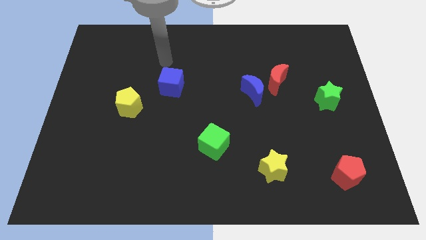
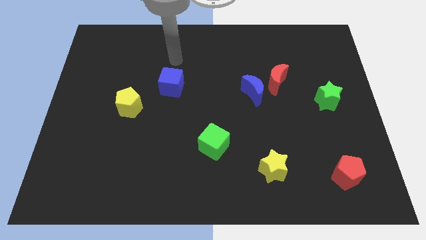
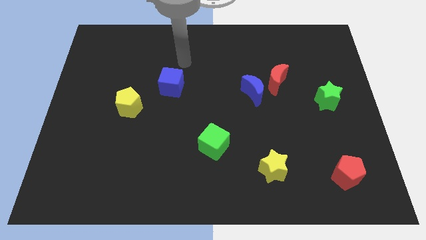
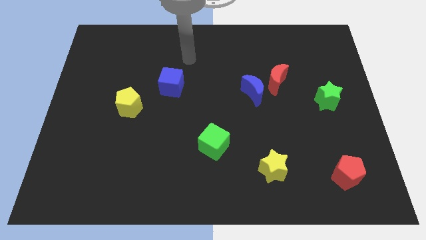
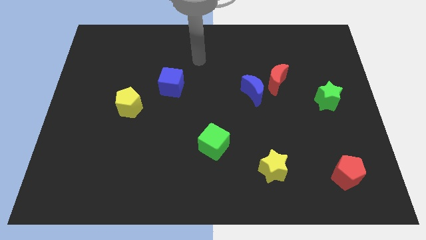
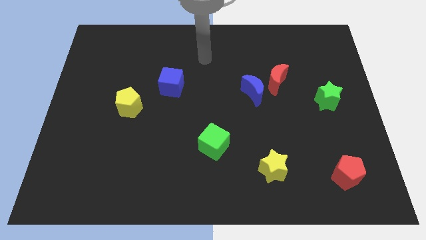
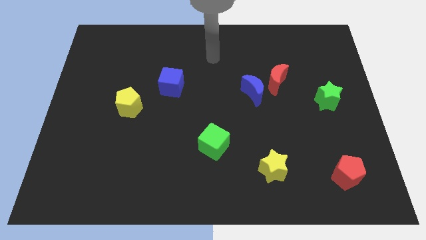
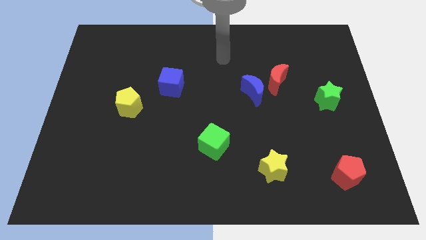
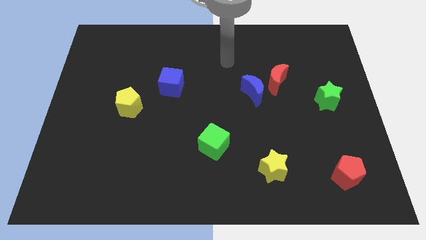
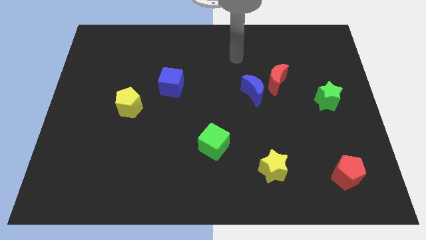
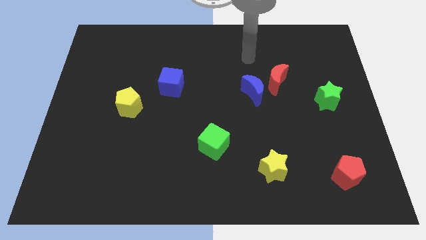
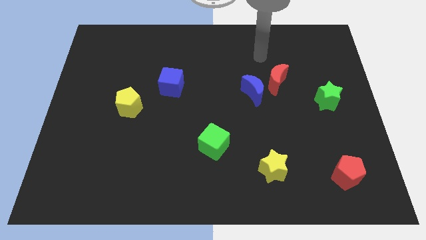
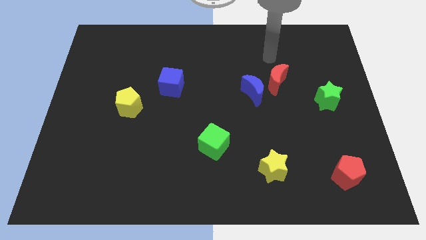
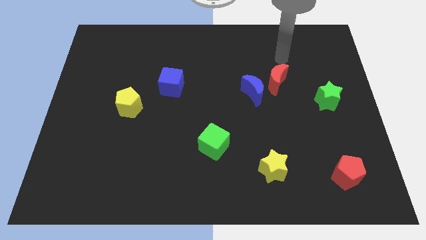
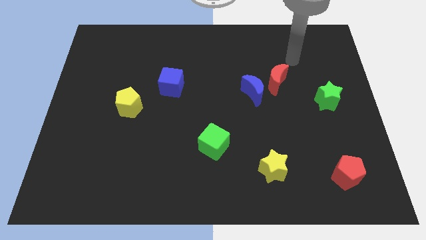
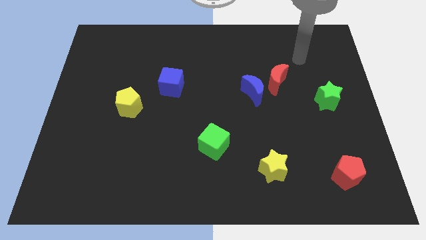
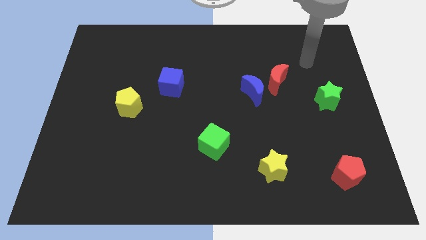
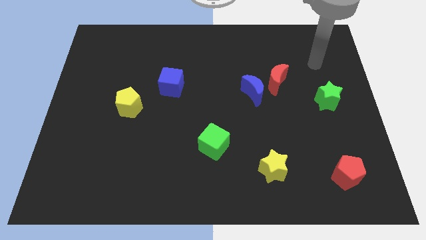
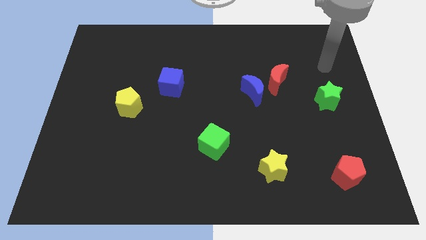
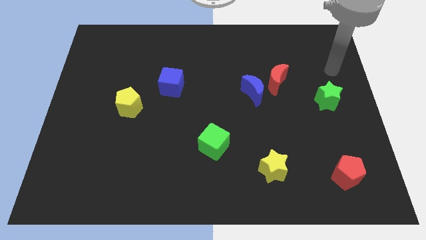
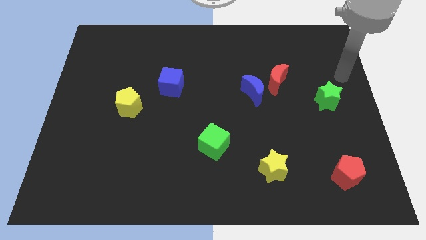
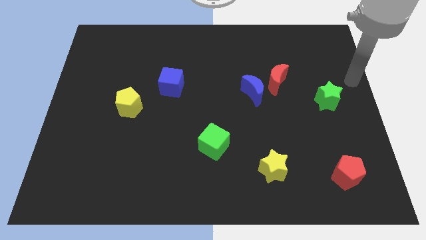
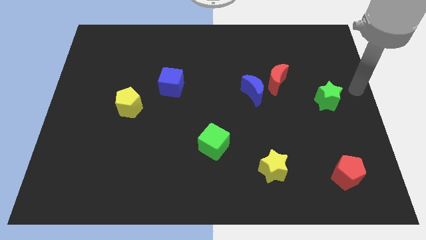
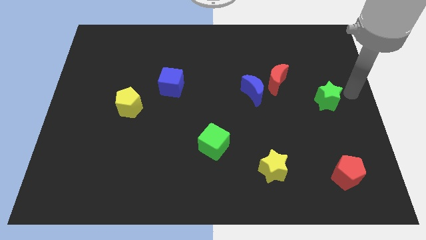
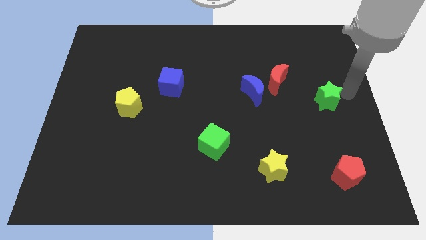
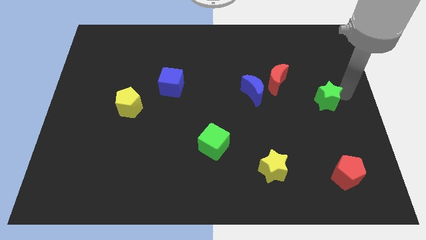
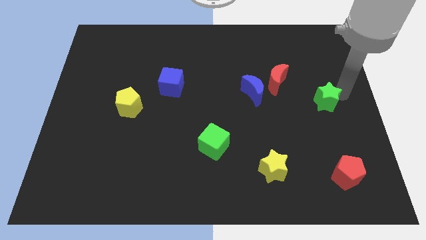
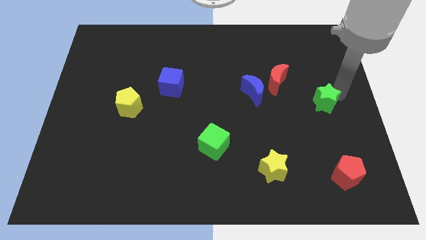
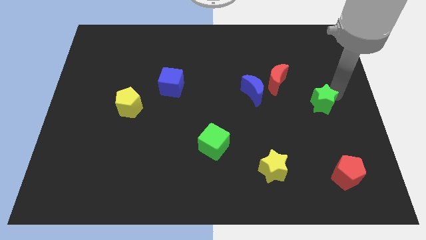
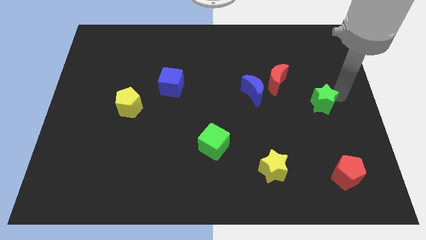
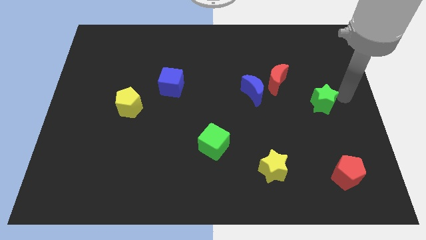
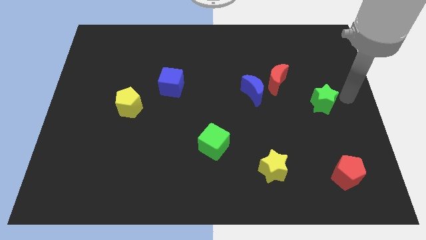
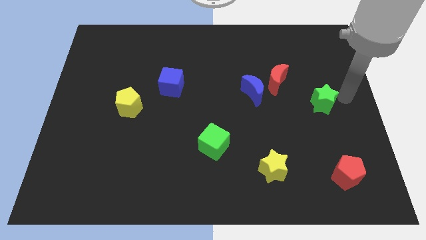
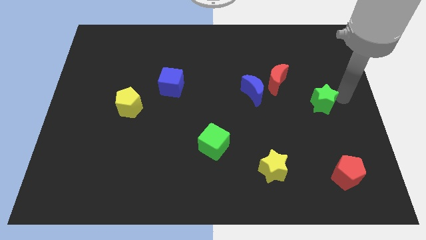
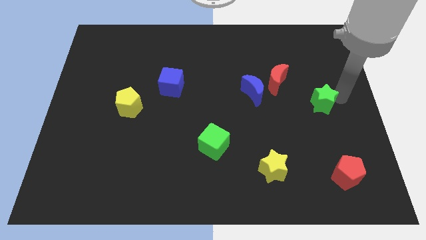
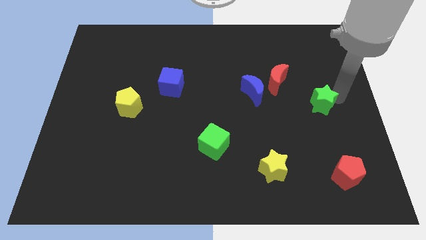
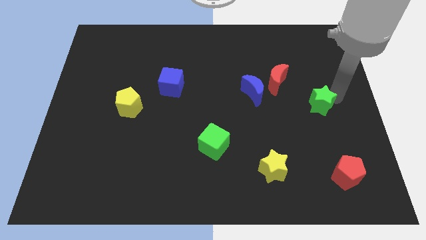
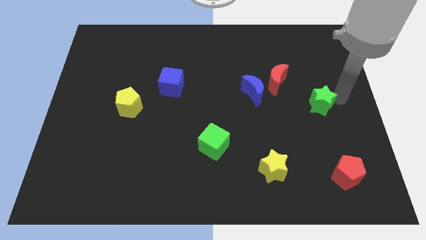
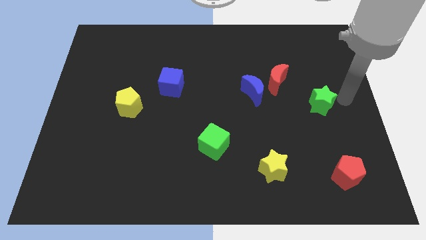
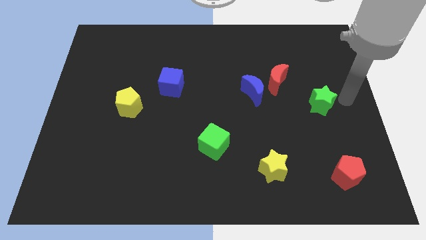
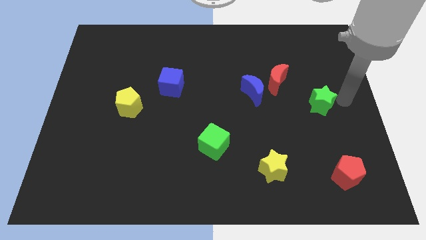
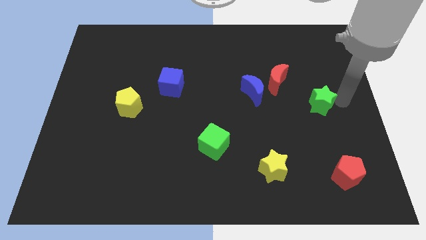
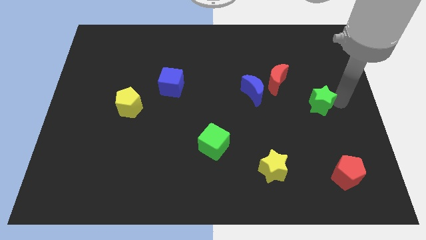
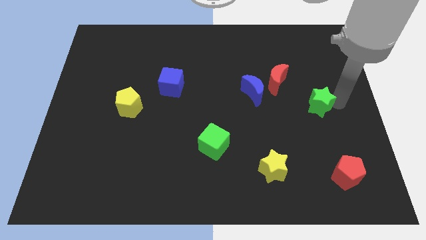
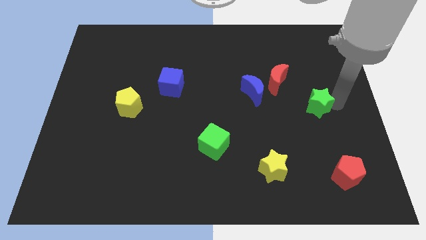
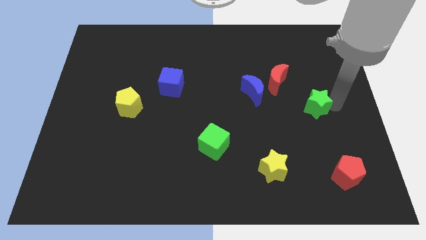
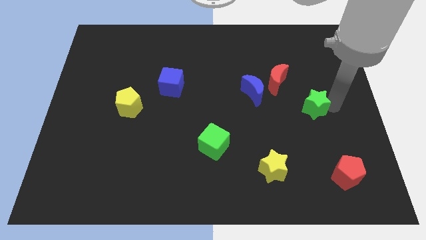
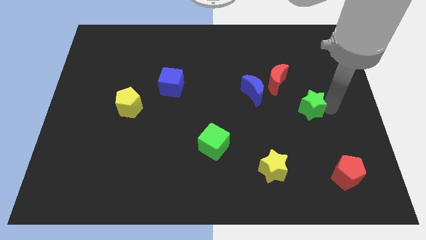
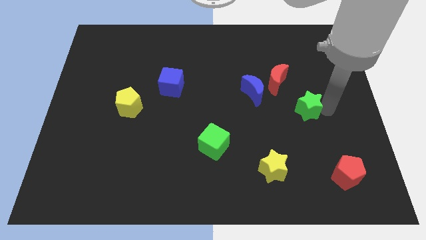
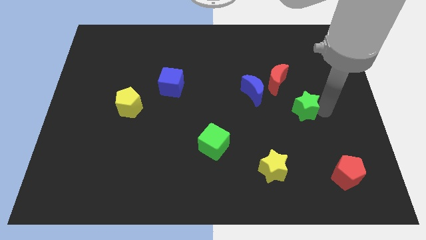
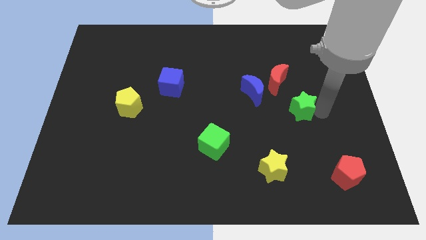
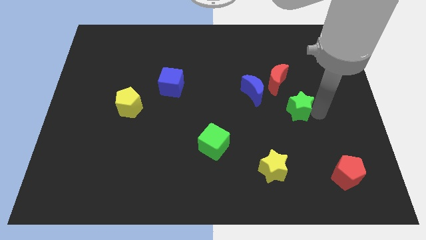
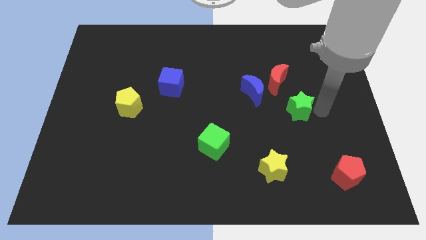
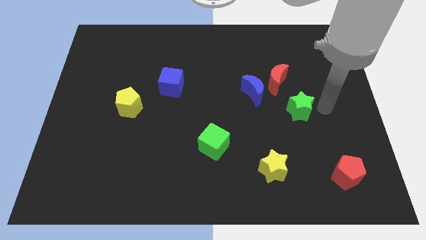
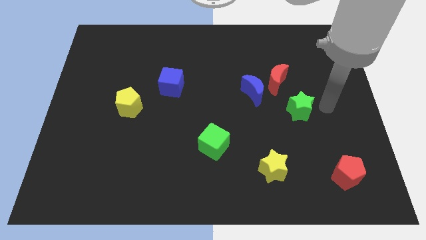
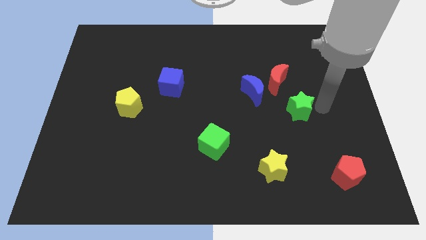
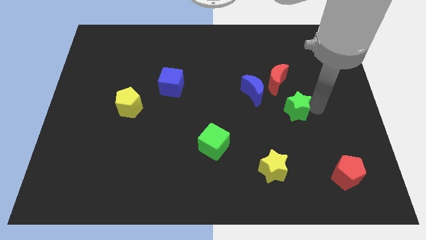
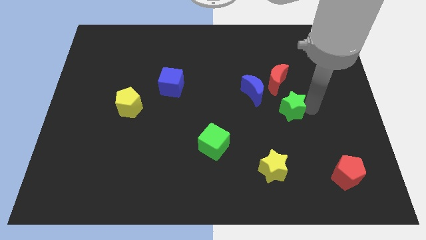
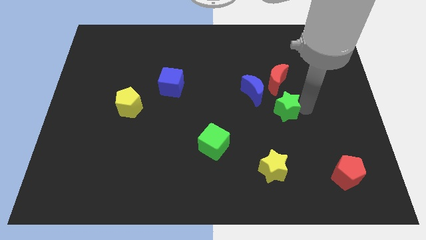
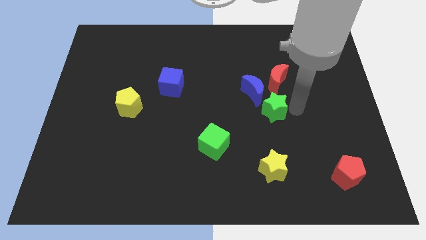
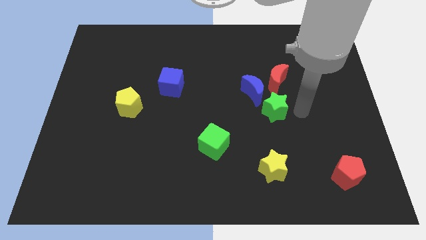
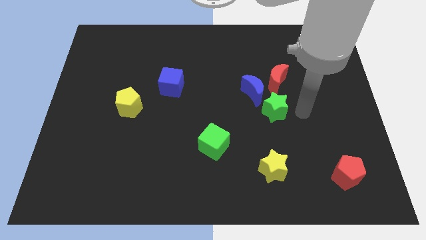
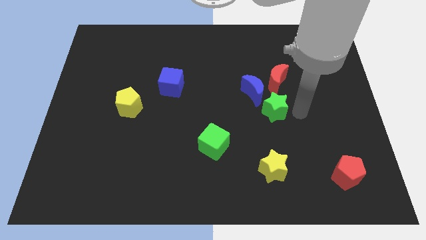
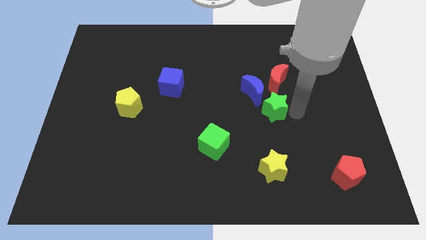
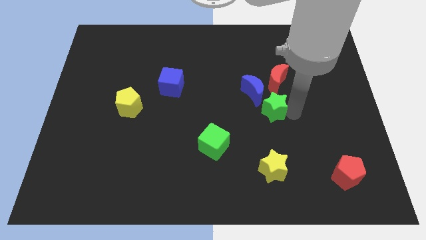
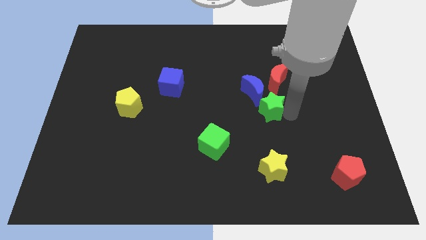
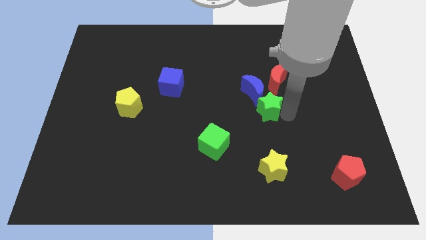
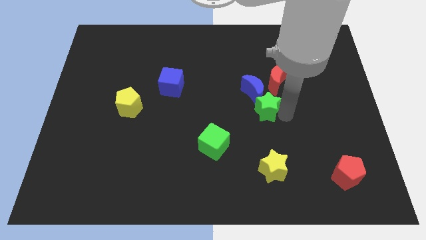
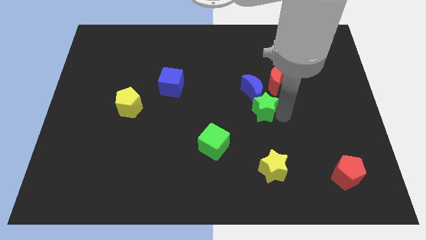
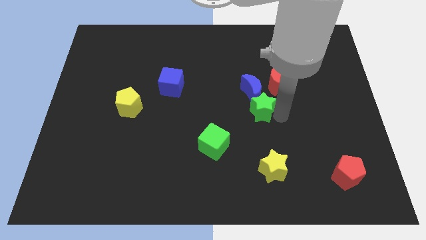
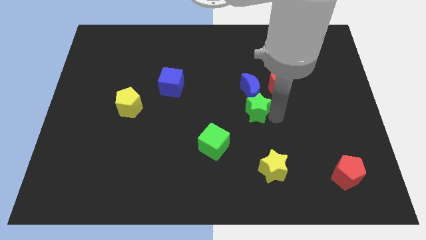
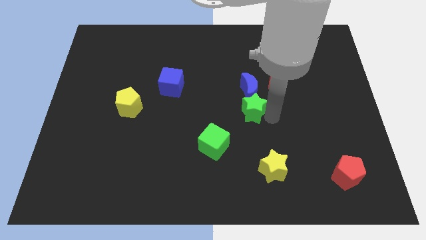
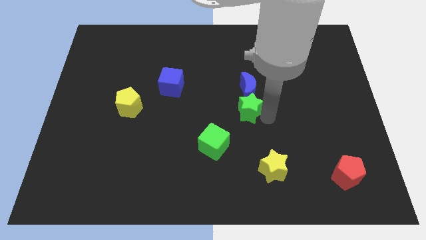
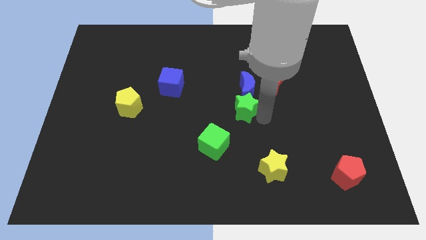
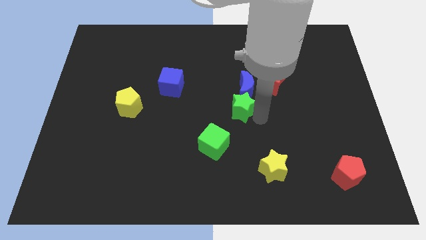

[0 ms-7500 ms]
move the green star left

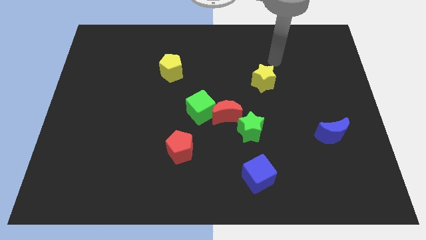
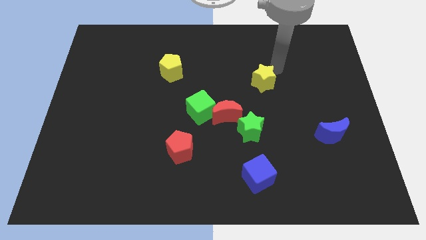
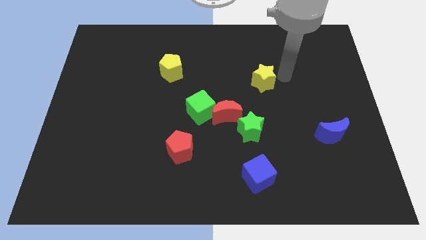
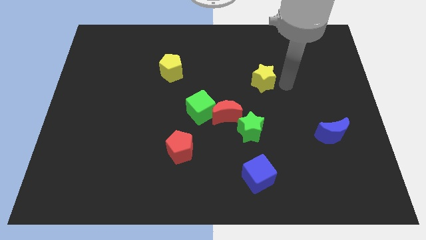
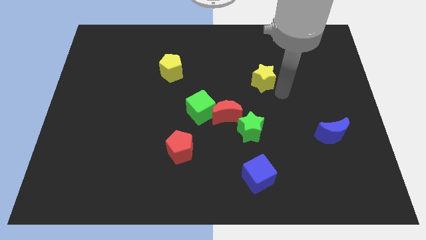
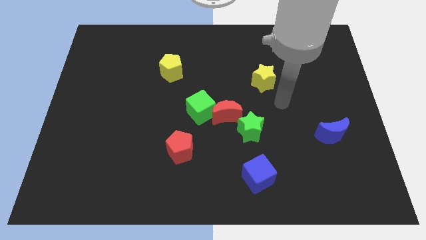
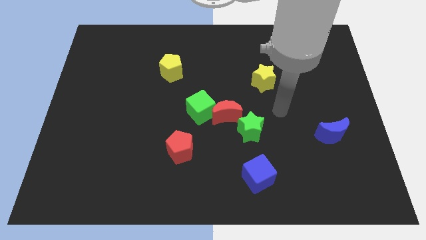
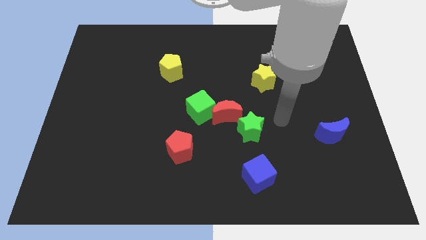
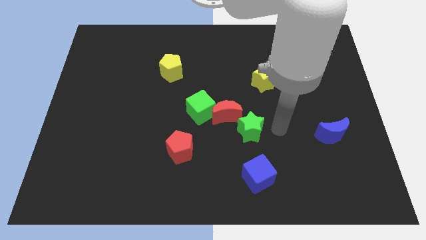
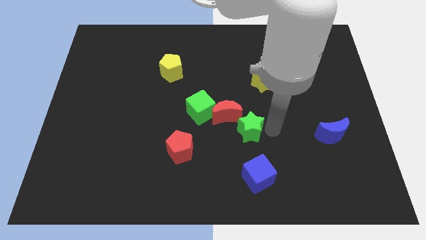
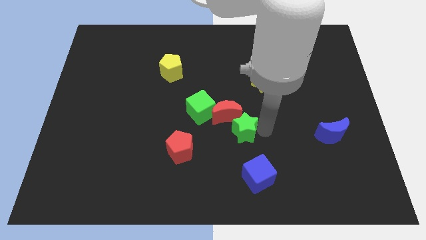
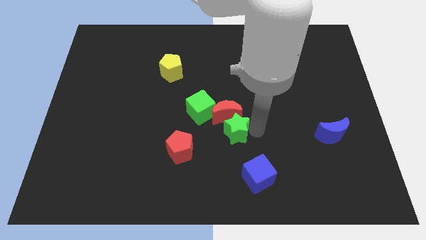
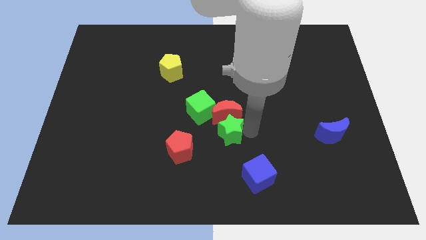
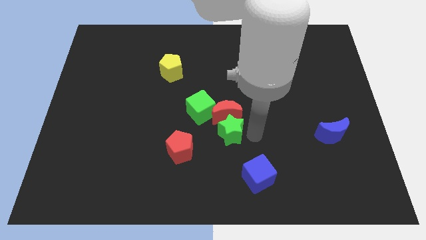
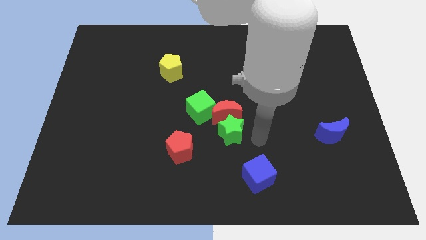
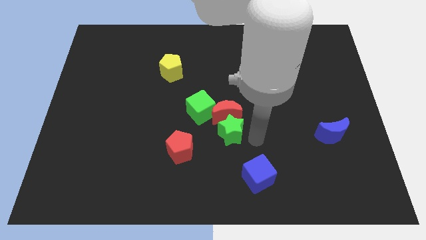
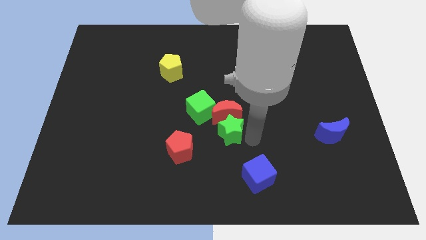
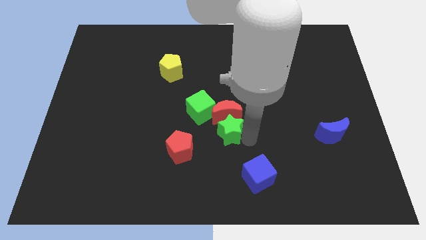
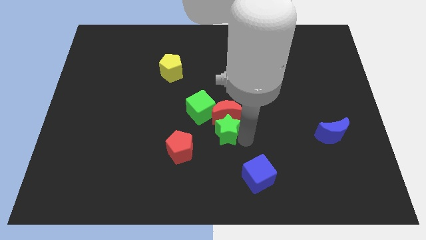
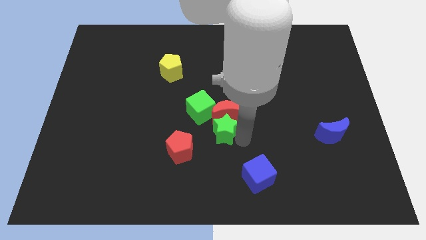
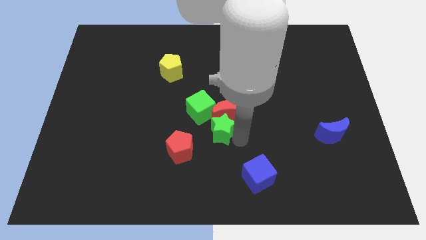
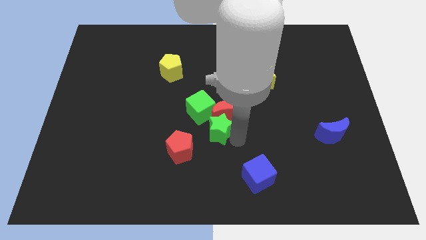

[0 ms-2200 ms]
slightly push the green star to the left
